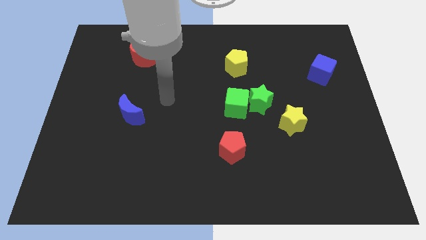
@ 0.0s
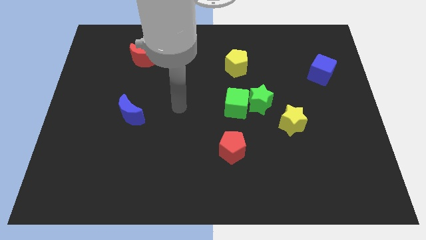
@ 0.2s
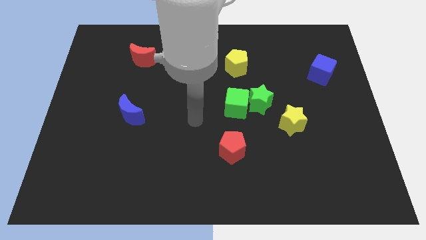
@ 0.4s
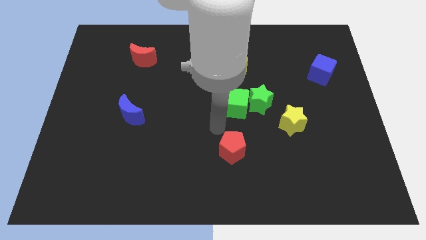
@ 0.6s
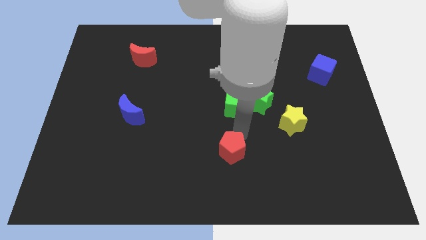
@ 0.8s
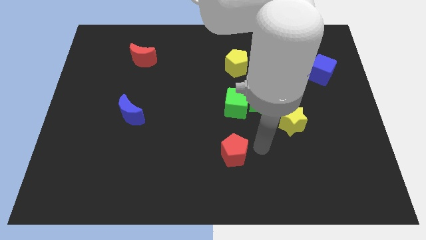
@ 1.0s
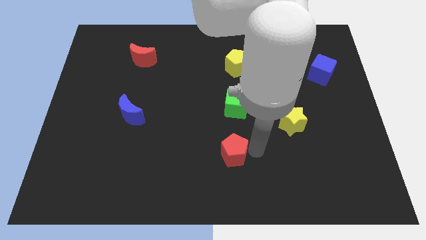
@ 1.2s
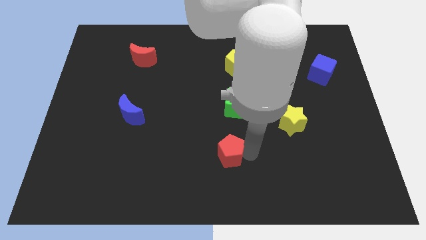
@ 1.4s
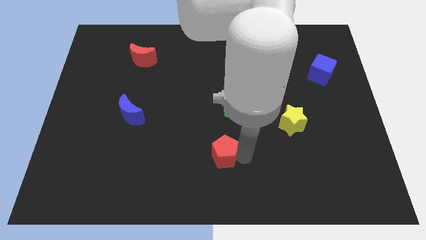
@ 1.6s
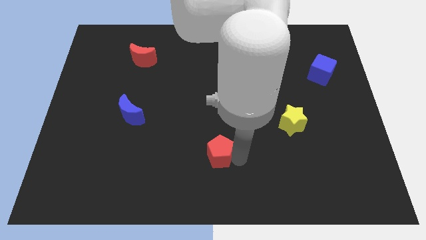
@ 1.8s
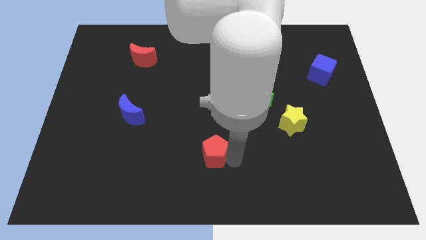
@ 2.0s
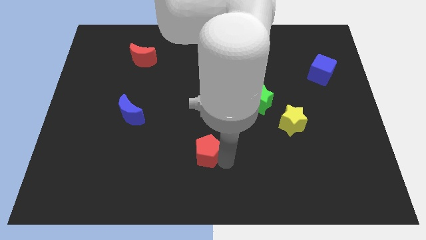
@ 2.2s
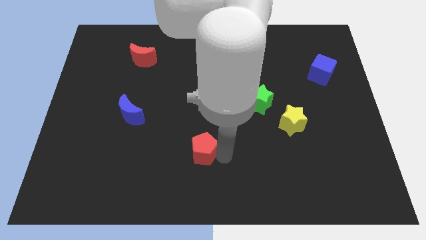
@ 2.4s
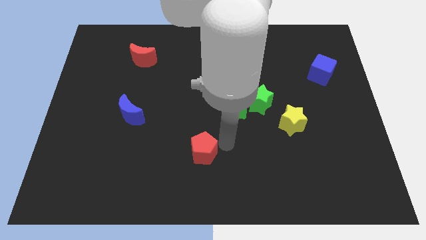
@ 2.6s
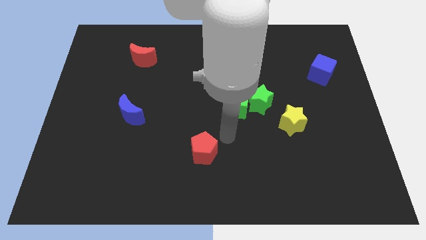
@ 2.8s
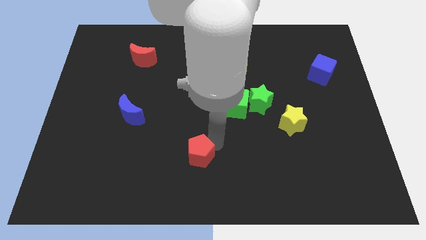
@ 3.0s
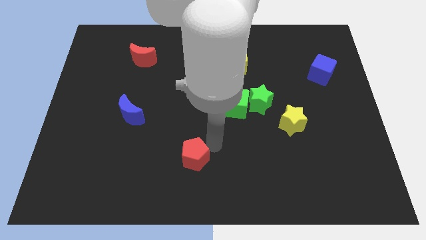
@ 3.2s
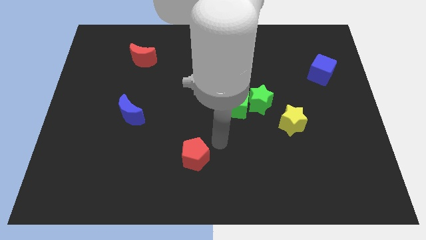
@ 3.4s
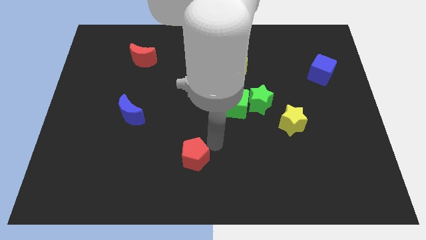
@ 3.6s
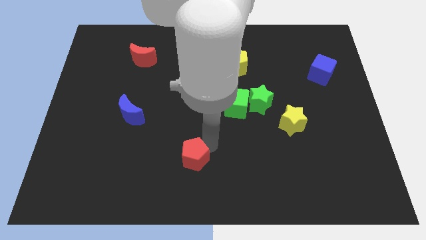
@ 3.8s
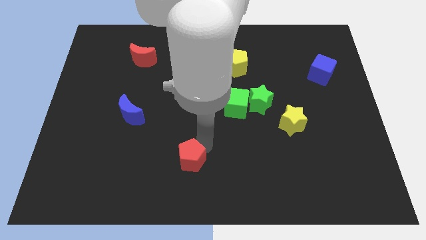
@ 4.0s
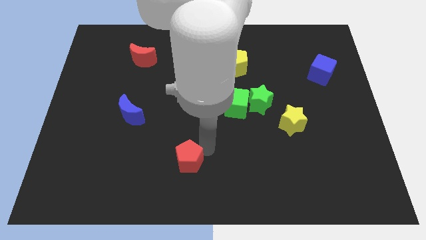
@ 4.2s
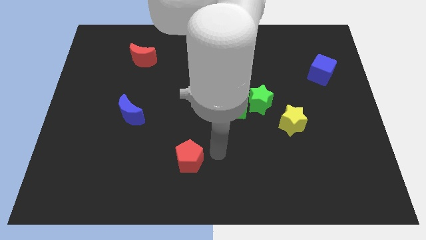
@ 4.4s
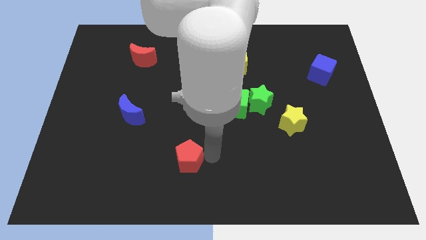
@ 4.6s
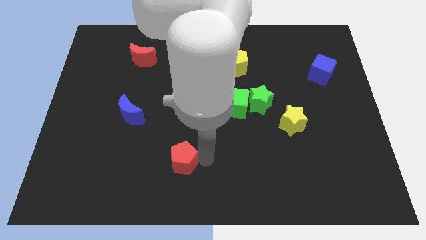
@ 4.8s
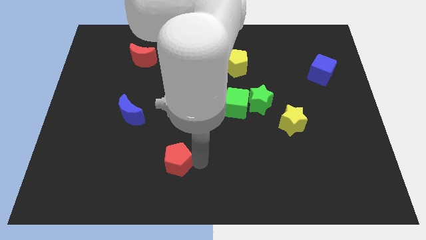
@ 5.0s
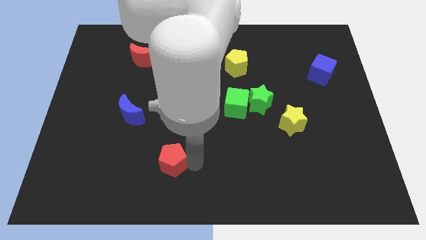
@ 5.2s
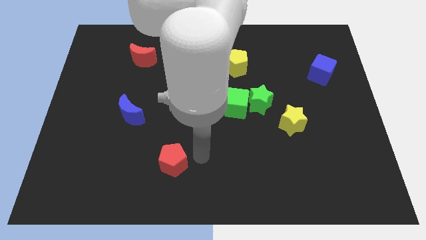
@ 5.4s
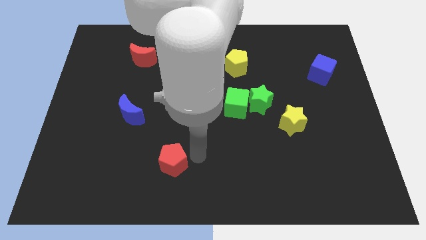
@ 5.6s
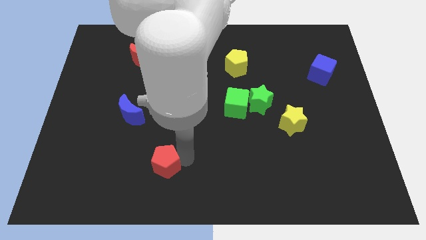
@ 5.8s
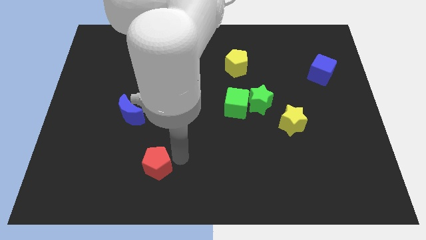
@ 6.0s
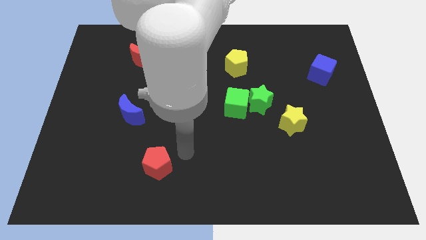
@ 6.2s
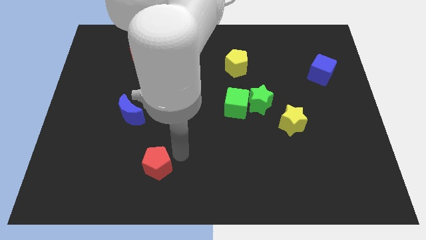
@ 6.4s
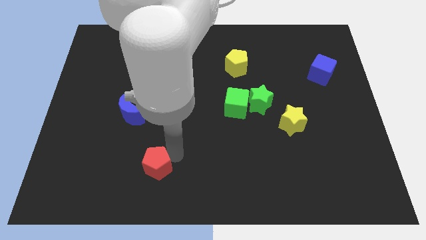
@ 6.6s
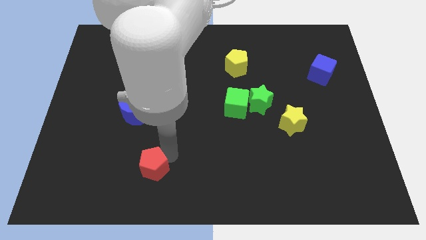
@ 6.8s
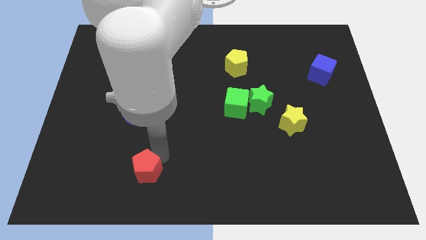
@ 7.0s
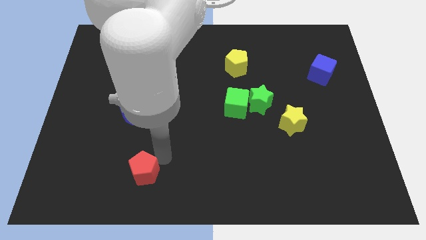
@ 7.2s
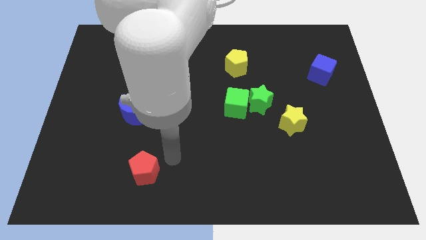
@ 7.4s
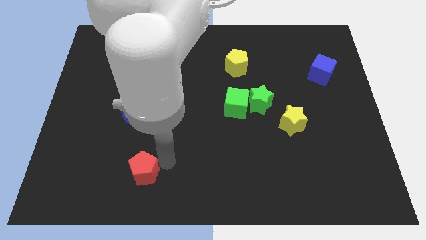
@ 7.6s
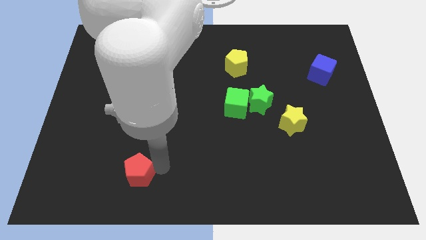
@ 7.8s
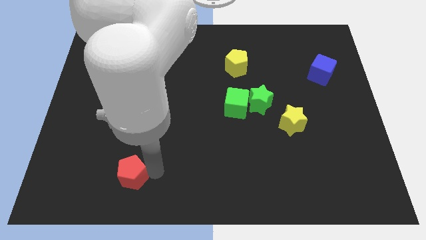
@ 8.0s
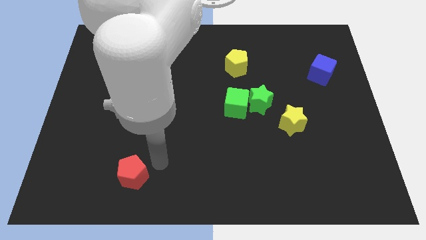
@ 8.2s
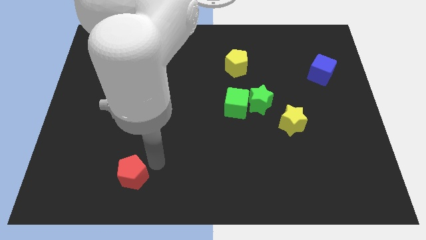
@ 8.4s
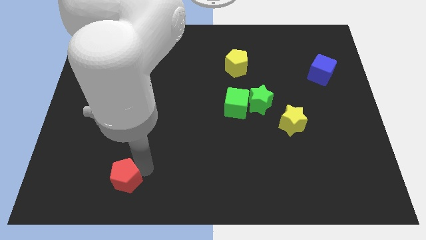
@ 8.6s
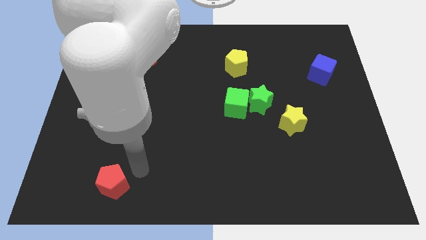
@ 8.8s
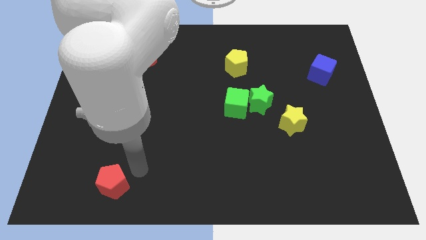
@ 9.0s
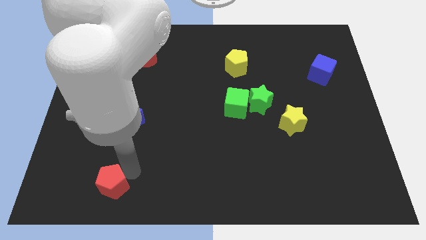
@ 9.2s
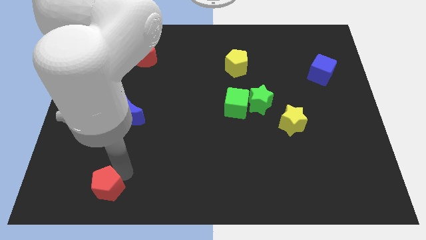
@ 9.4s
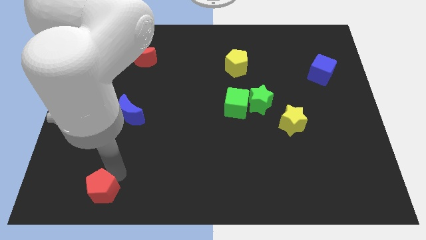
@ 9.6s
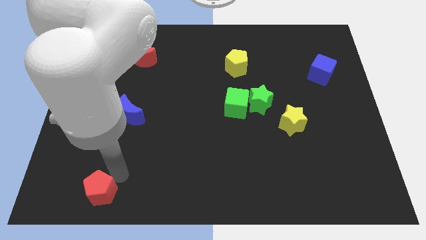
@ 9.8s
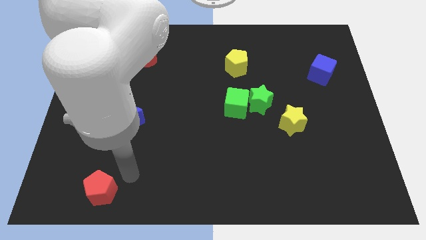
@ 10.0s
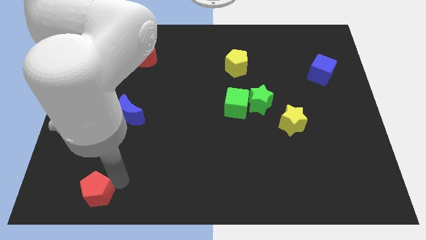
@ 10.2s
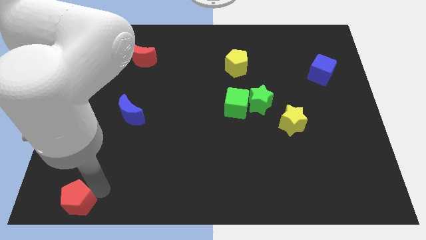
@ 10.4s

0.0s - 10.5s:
move the red pentagon to the lower left corner

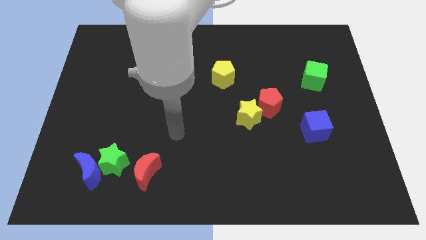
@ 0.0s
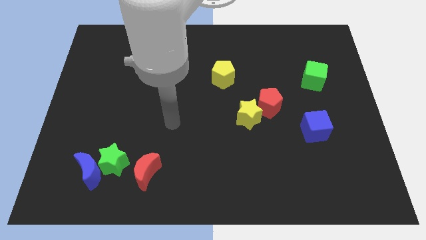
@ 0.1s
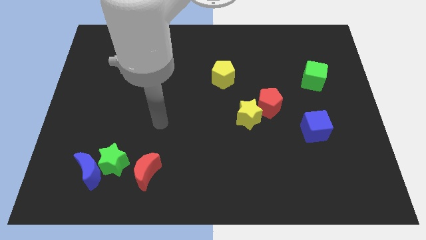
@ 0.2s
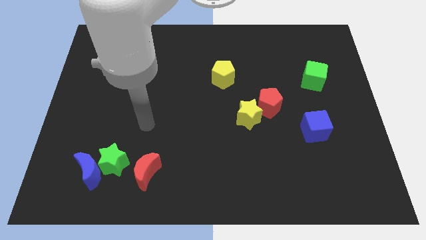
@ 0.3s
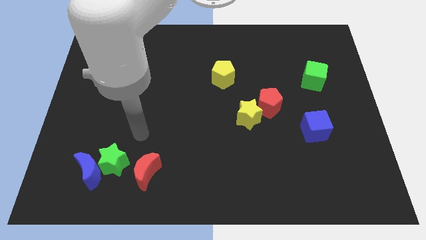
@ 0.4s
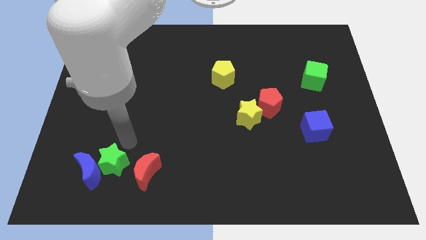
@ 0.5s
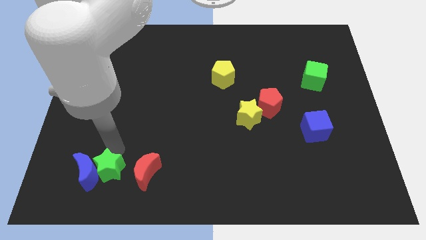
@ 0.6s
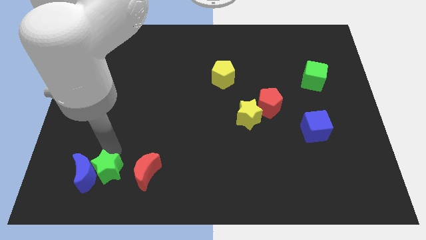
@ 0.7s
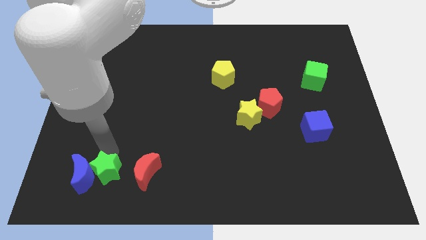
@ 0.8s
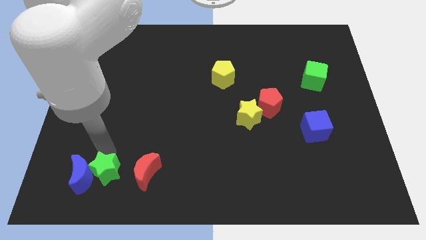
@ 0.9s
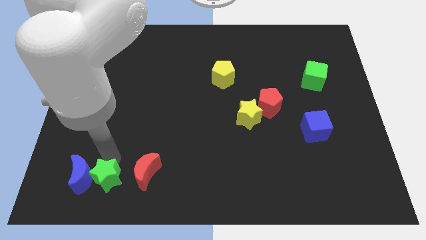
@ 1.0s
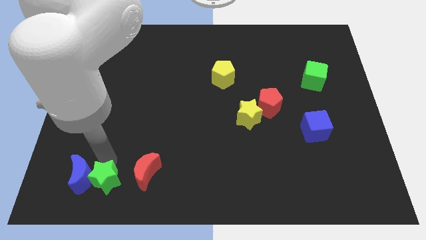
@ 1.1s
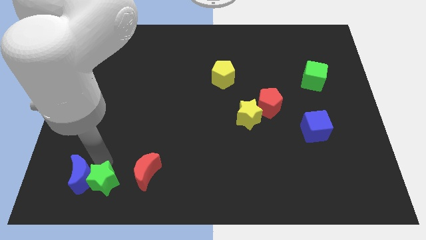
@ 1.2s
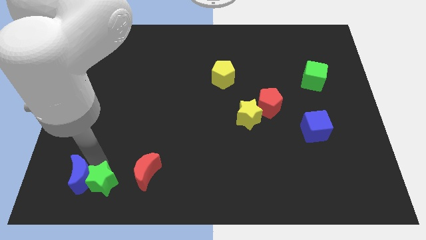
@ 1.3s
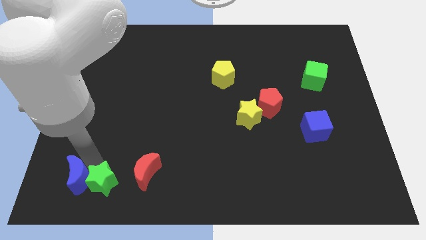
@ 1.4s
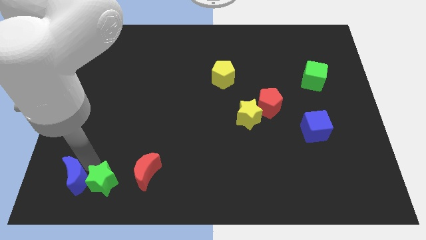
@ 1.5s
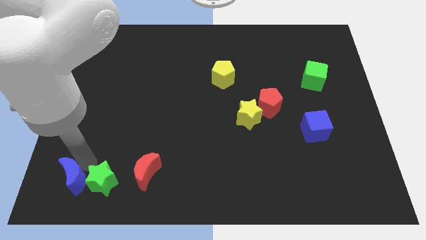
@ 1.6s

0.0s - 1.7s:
move the blue moon to the lower left corner
